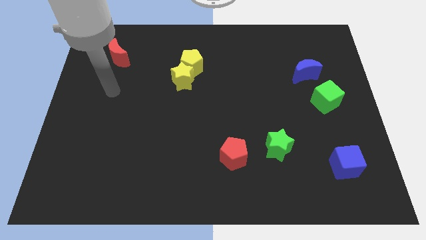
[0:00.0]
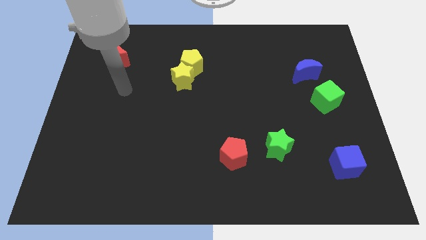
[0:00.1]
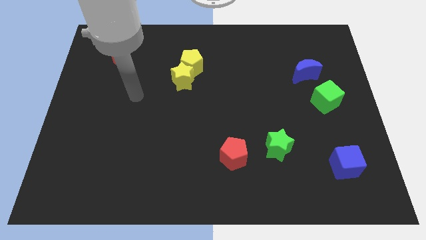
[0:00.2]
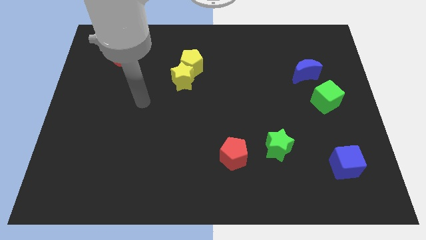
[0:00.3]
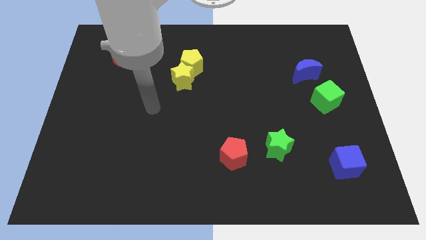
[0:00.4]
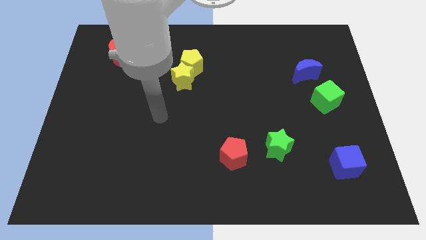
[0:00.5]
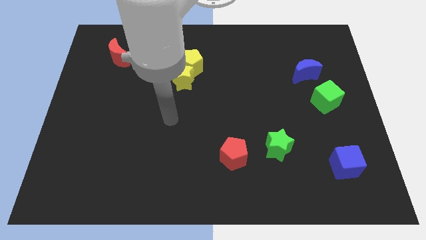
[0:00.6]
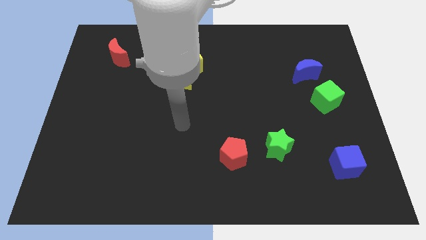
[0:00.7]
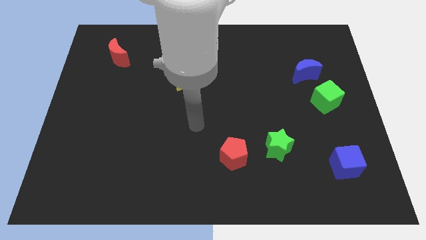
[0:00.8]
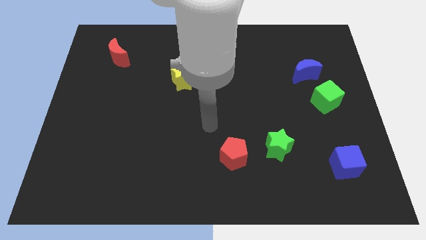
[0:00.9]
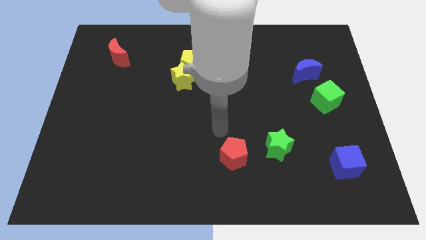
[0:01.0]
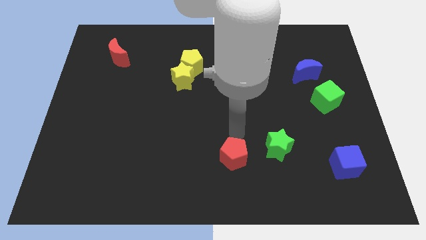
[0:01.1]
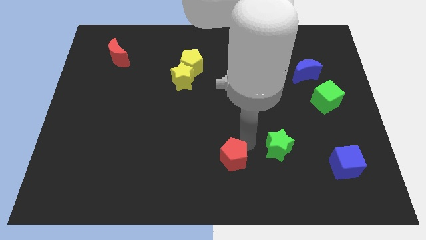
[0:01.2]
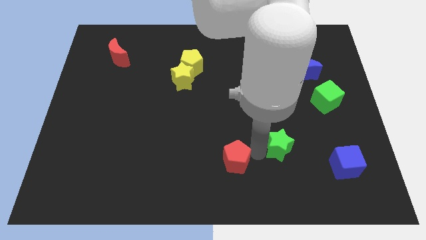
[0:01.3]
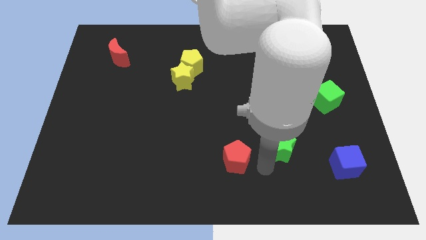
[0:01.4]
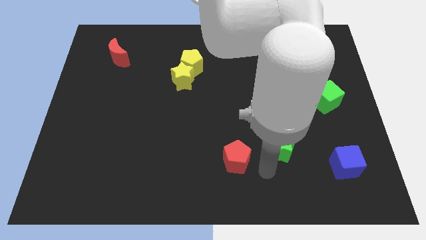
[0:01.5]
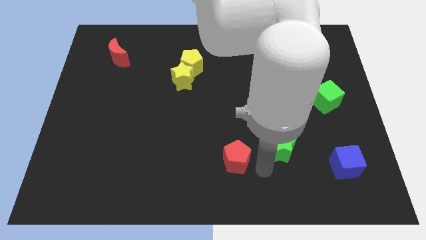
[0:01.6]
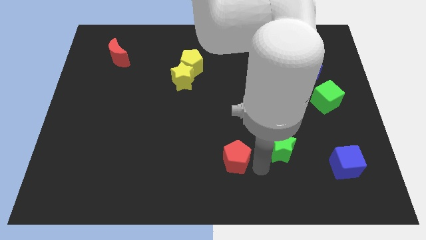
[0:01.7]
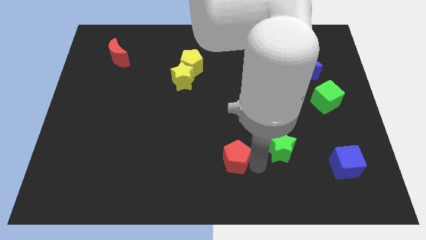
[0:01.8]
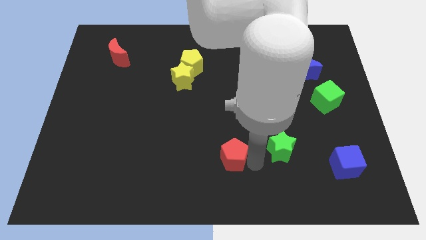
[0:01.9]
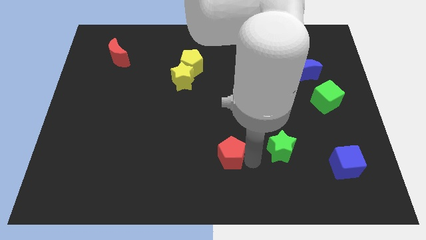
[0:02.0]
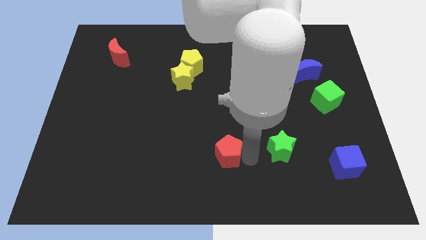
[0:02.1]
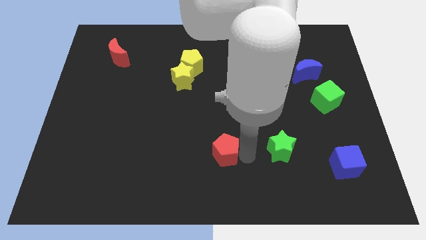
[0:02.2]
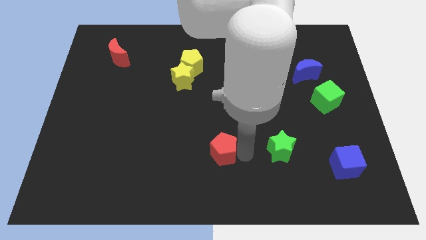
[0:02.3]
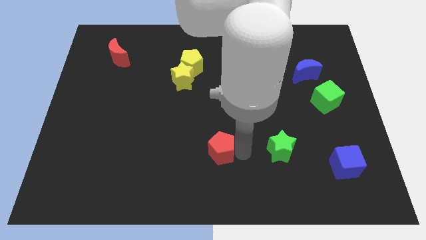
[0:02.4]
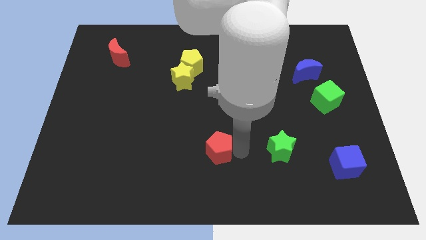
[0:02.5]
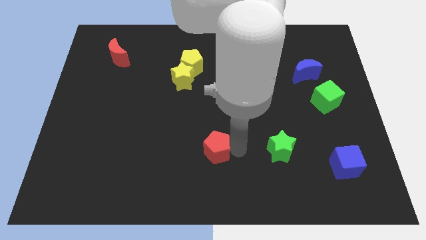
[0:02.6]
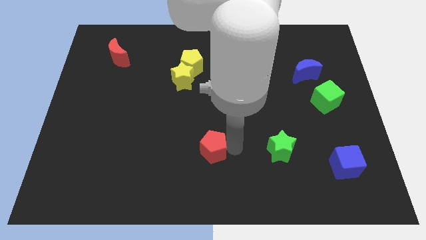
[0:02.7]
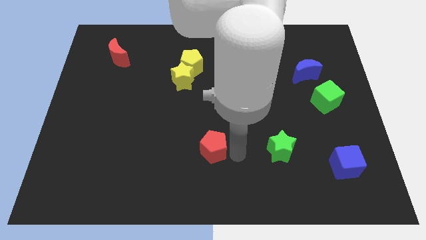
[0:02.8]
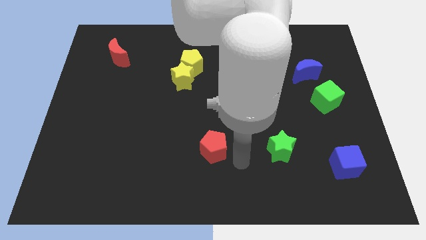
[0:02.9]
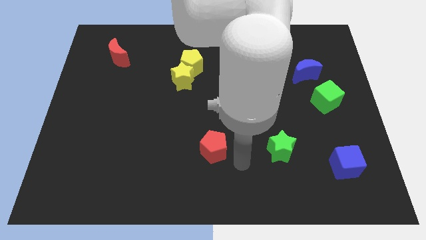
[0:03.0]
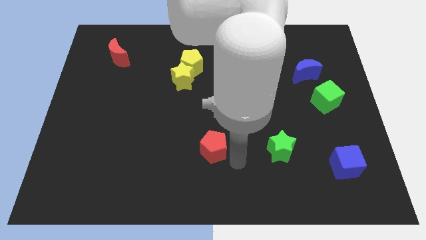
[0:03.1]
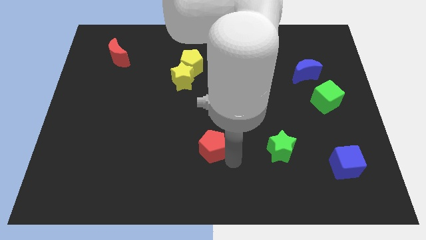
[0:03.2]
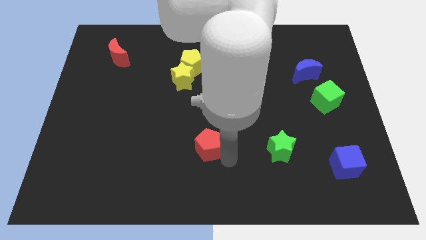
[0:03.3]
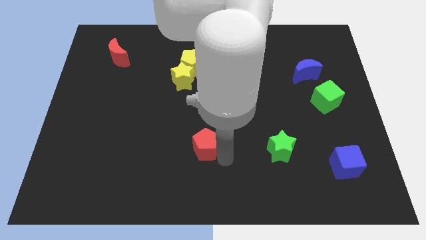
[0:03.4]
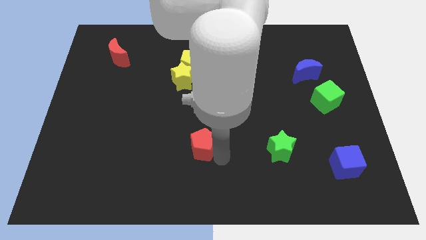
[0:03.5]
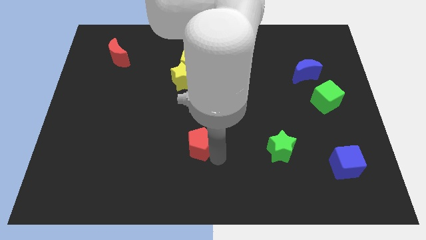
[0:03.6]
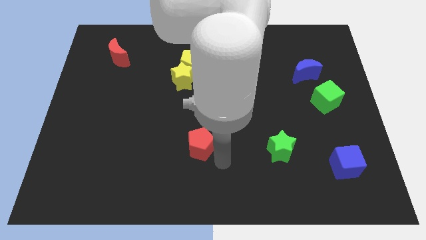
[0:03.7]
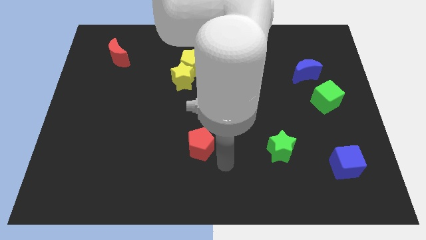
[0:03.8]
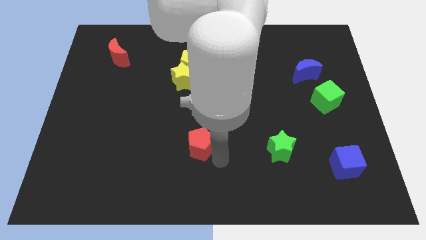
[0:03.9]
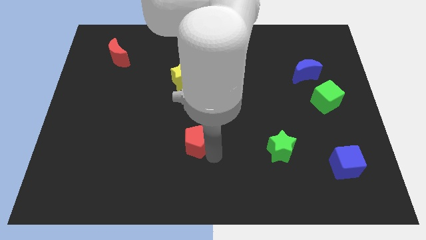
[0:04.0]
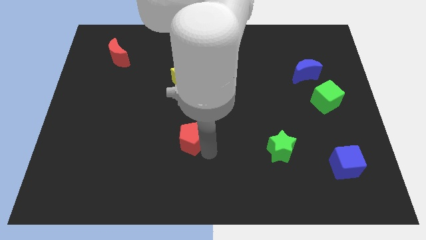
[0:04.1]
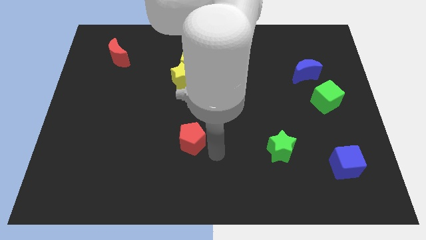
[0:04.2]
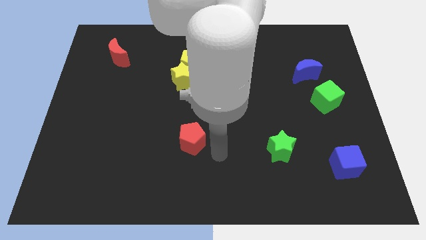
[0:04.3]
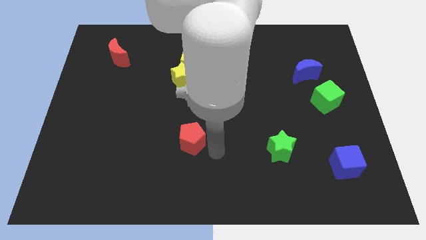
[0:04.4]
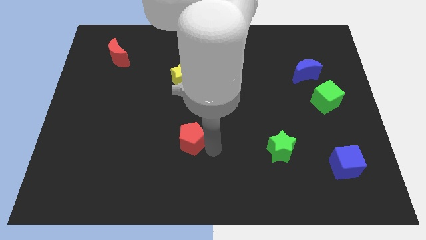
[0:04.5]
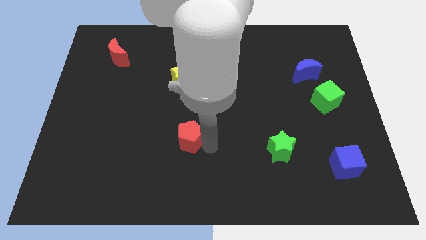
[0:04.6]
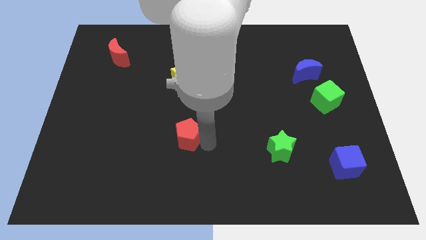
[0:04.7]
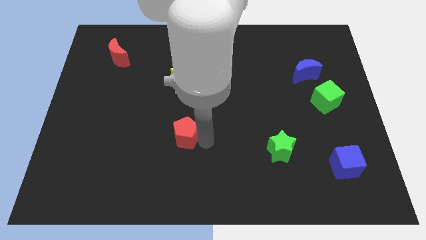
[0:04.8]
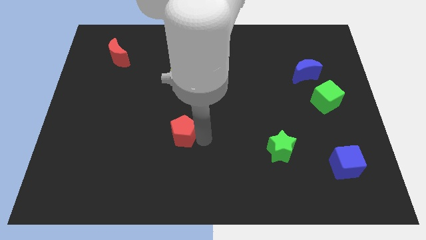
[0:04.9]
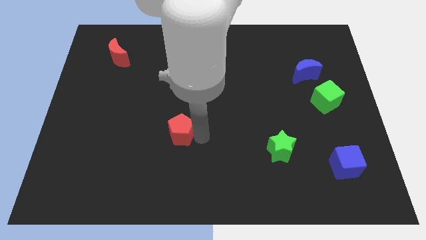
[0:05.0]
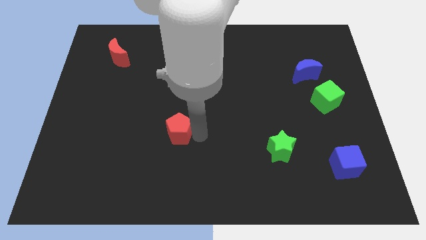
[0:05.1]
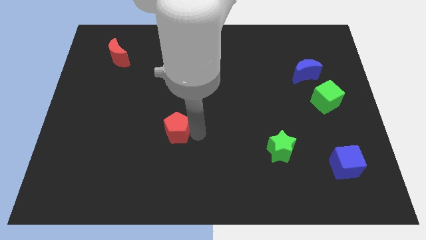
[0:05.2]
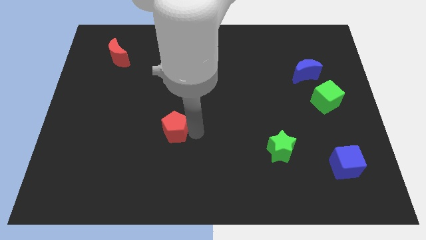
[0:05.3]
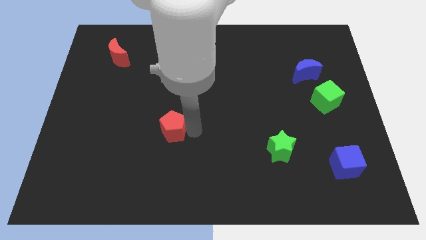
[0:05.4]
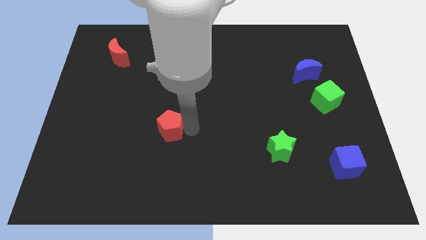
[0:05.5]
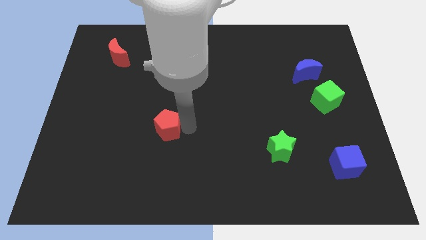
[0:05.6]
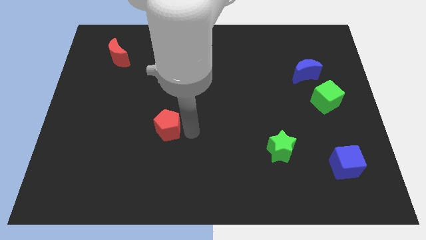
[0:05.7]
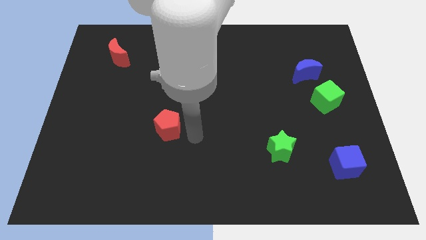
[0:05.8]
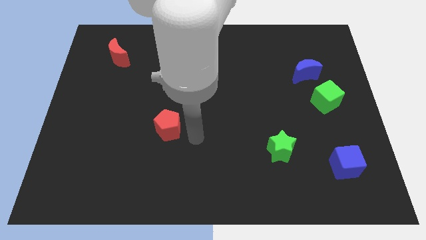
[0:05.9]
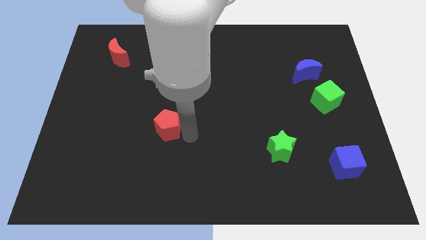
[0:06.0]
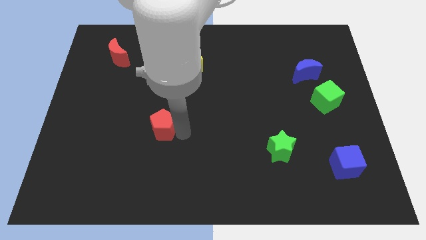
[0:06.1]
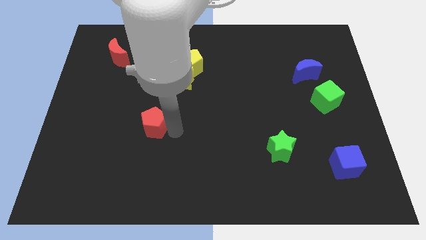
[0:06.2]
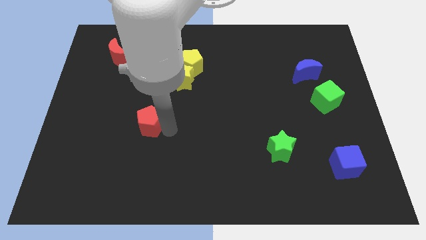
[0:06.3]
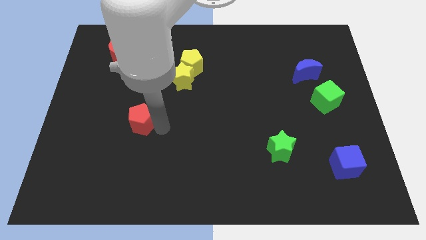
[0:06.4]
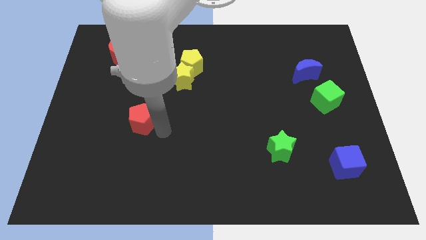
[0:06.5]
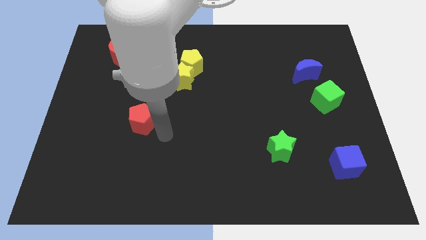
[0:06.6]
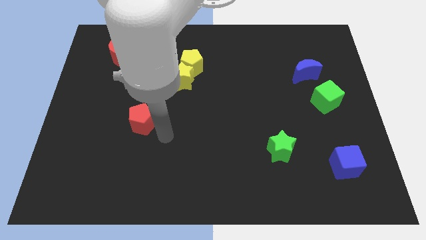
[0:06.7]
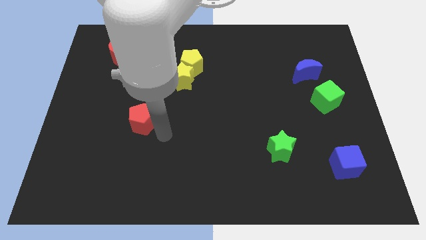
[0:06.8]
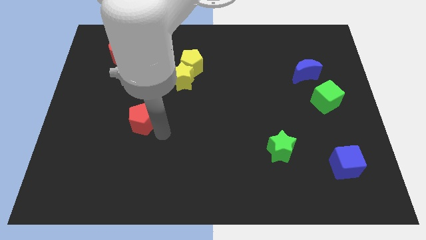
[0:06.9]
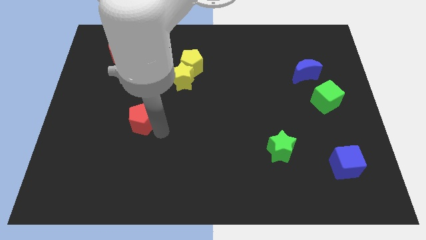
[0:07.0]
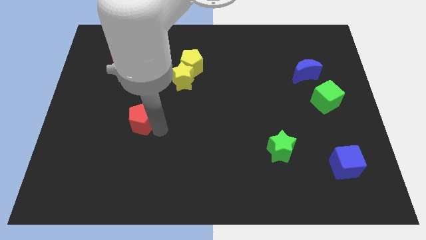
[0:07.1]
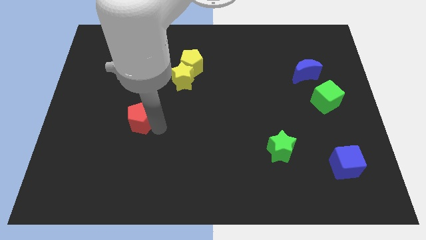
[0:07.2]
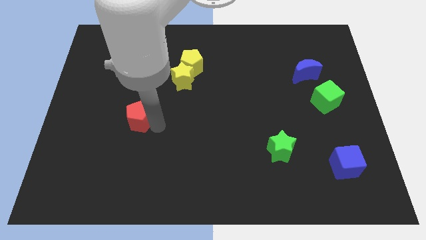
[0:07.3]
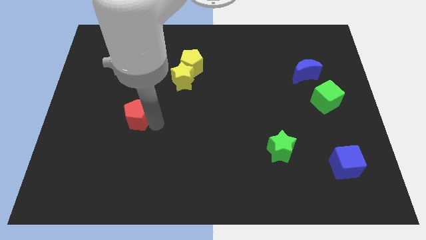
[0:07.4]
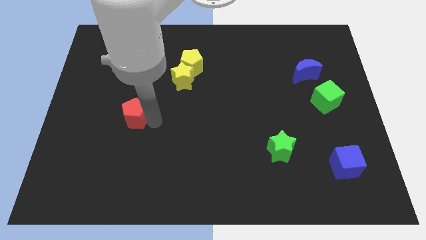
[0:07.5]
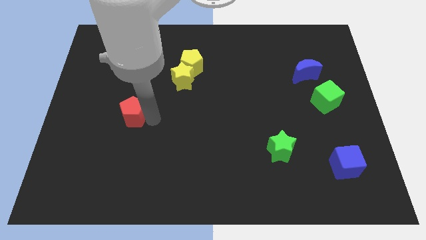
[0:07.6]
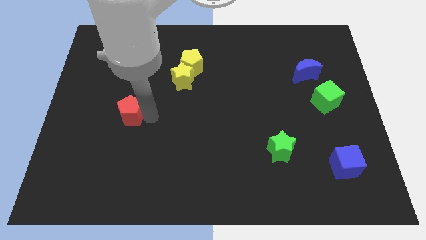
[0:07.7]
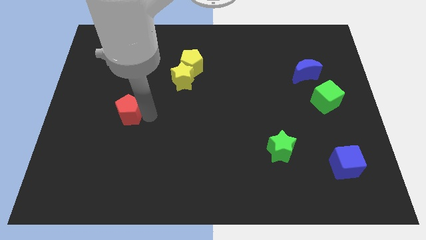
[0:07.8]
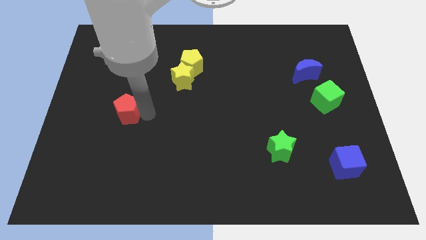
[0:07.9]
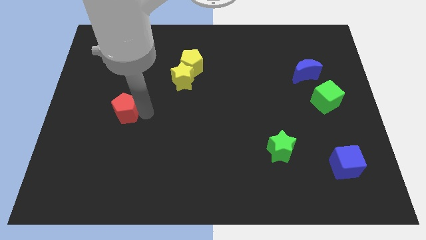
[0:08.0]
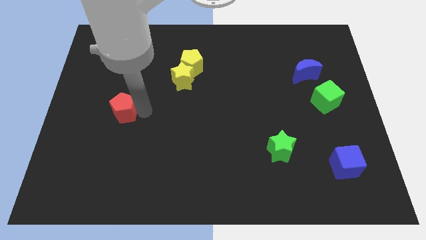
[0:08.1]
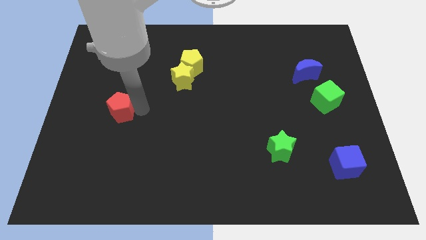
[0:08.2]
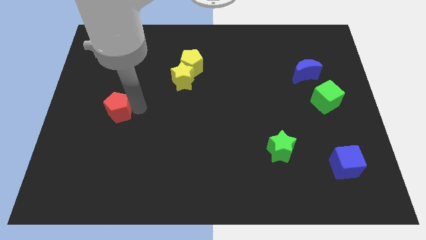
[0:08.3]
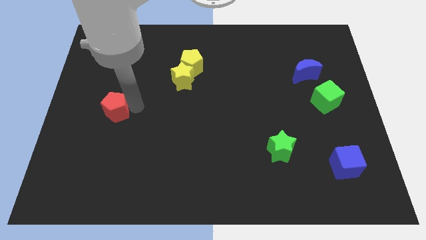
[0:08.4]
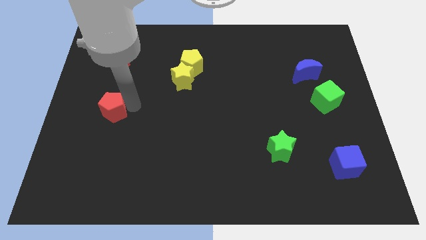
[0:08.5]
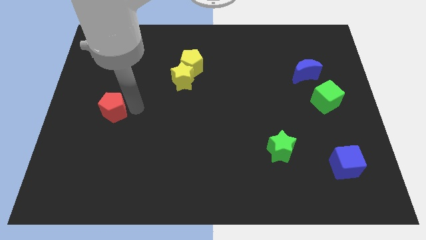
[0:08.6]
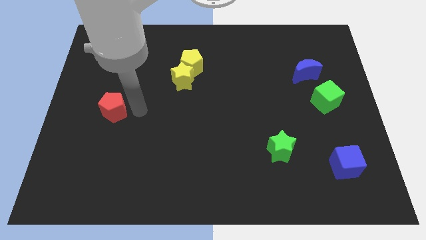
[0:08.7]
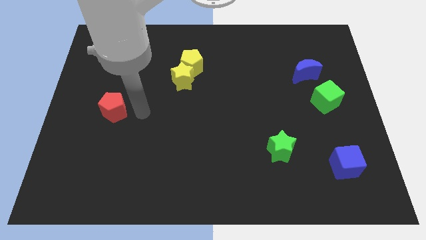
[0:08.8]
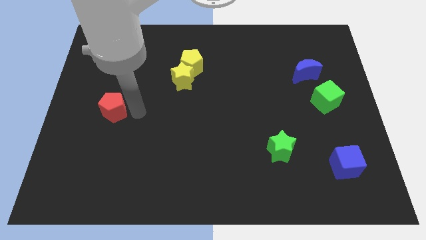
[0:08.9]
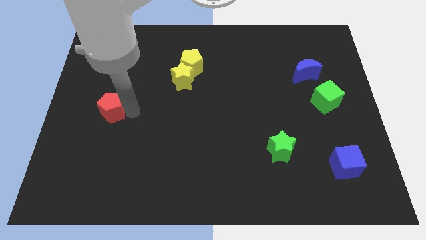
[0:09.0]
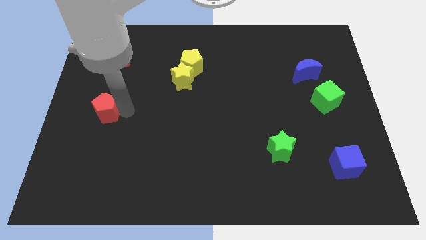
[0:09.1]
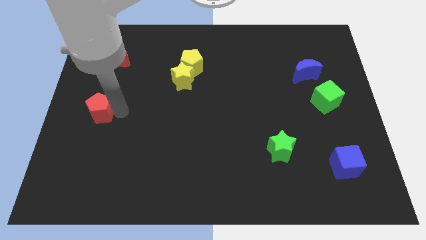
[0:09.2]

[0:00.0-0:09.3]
slide the red pentagon to the center left
